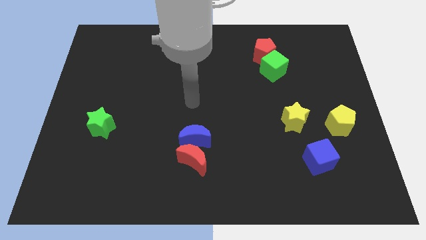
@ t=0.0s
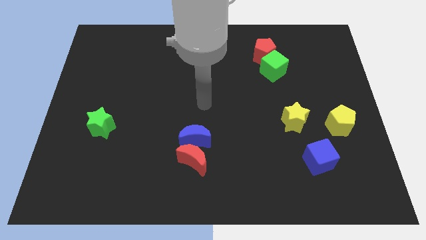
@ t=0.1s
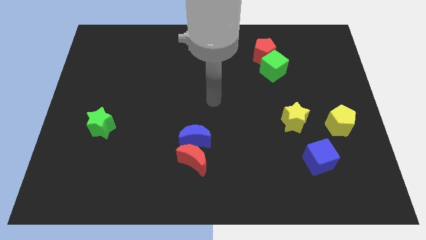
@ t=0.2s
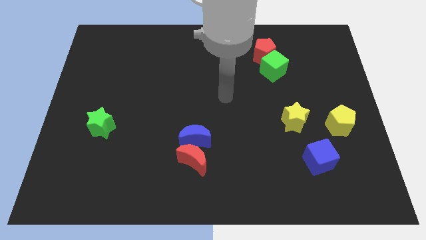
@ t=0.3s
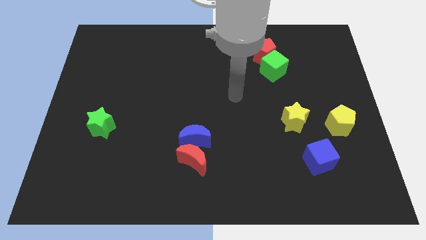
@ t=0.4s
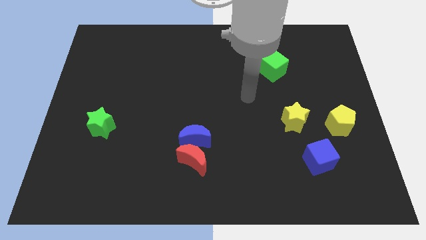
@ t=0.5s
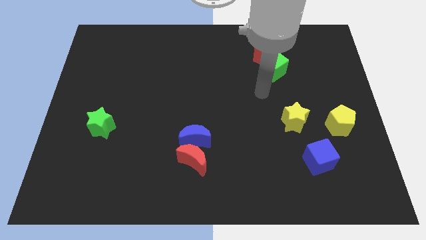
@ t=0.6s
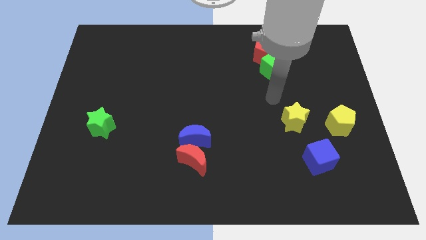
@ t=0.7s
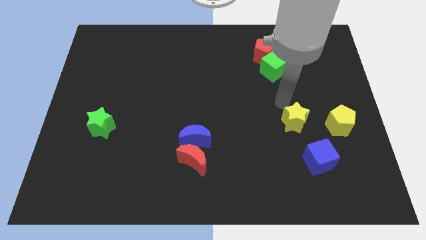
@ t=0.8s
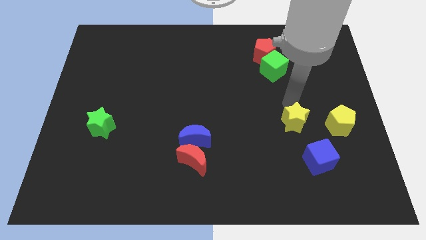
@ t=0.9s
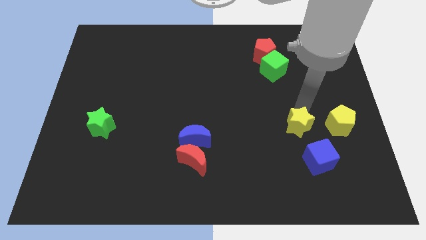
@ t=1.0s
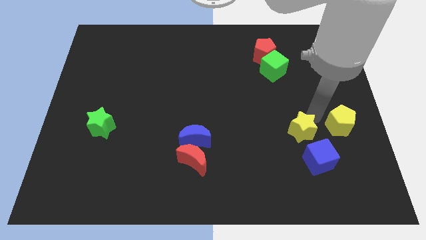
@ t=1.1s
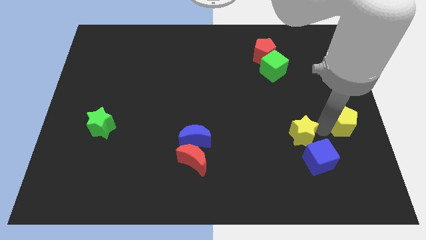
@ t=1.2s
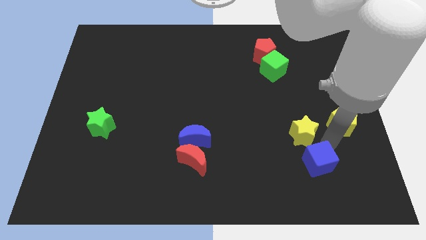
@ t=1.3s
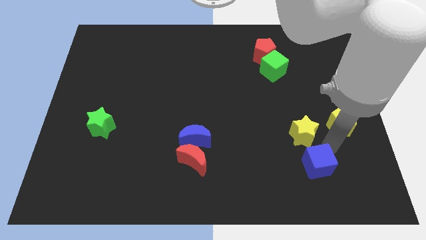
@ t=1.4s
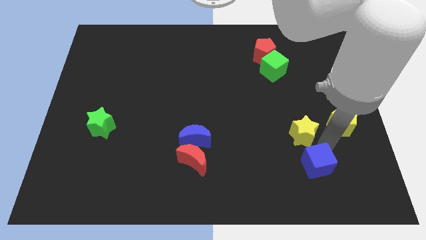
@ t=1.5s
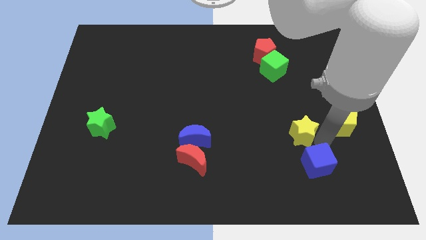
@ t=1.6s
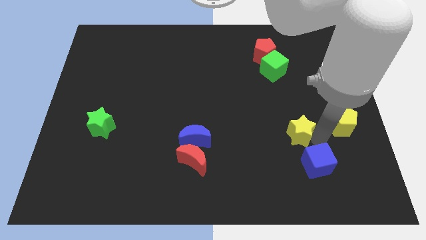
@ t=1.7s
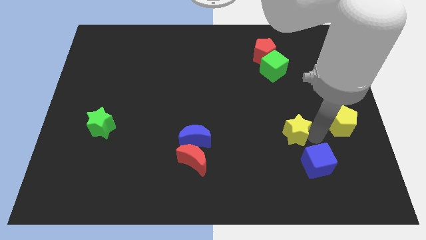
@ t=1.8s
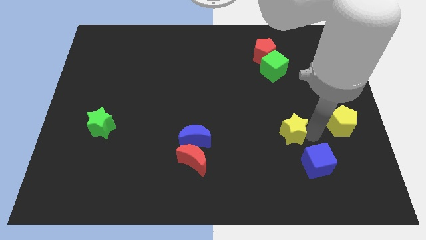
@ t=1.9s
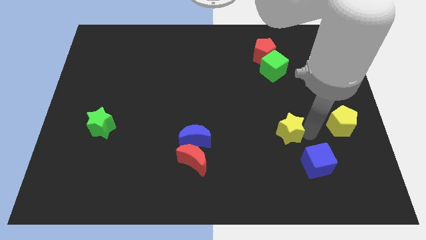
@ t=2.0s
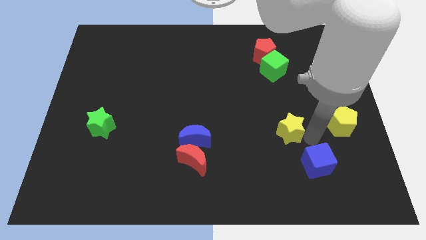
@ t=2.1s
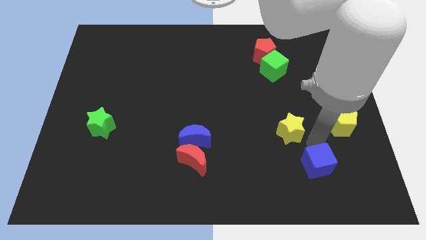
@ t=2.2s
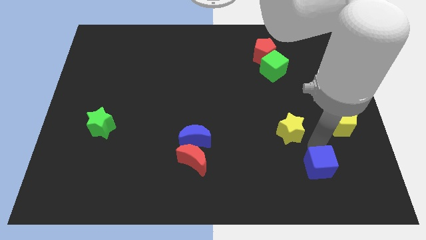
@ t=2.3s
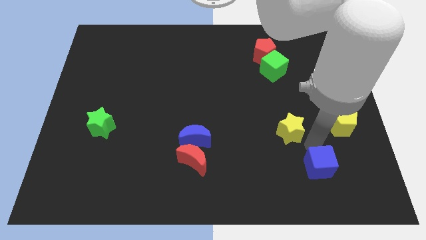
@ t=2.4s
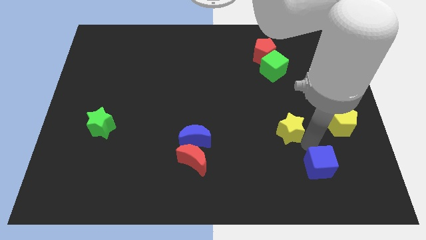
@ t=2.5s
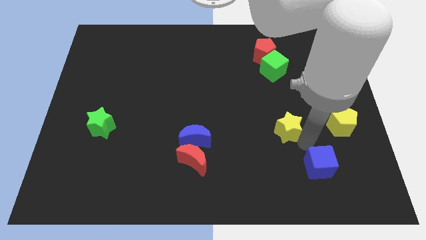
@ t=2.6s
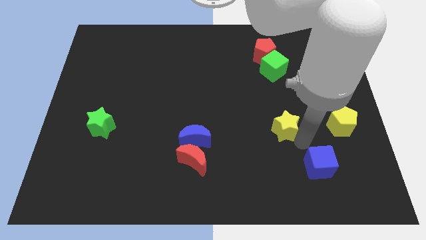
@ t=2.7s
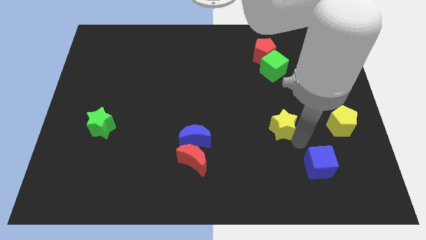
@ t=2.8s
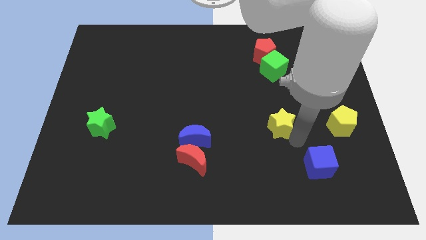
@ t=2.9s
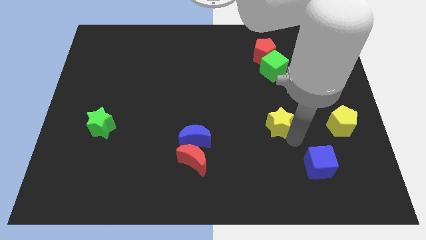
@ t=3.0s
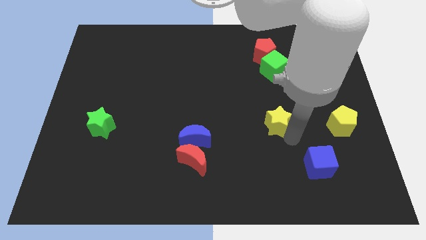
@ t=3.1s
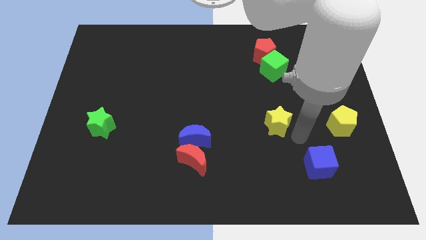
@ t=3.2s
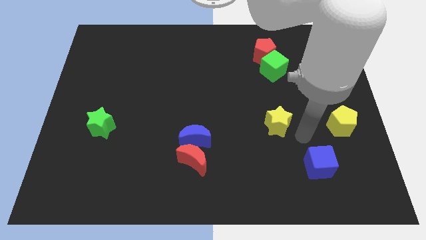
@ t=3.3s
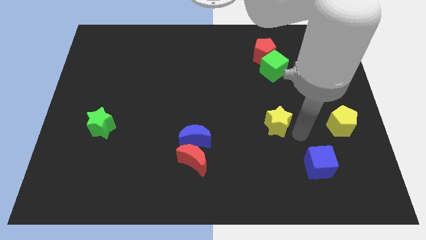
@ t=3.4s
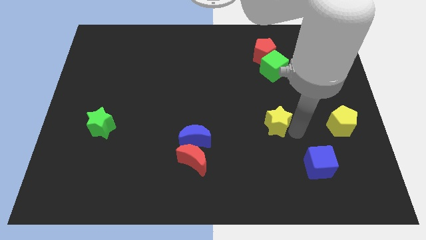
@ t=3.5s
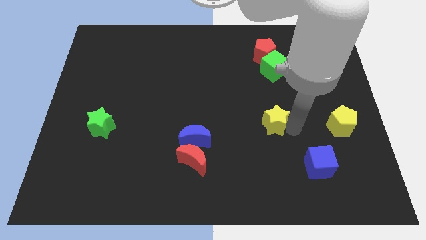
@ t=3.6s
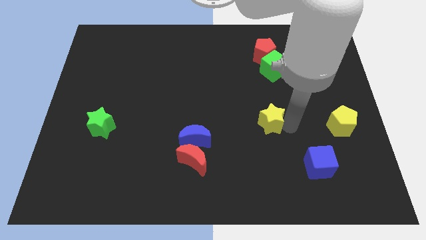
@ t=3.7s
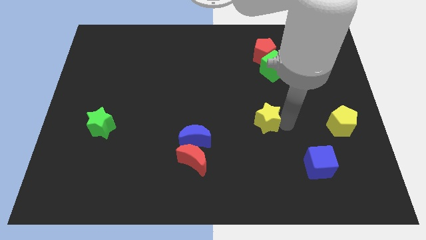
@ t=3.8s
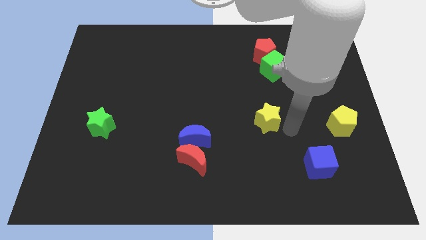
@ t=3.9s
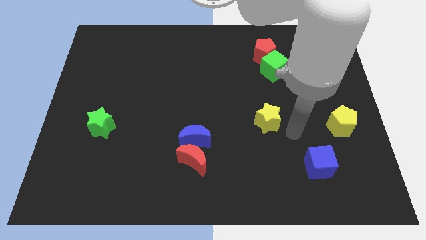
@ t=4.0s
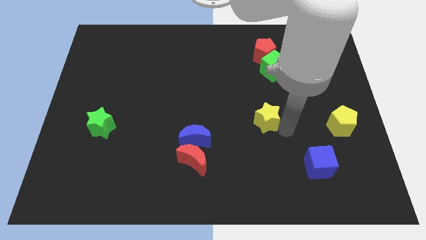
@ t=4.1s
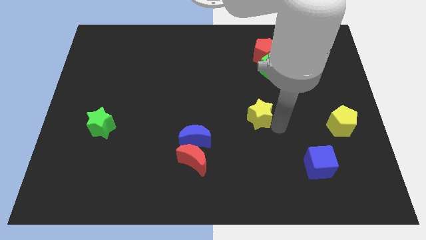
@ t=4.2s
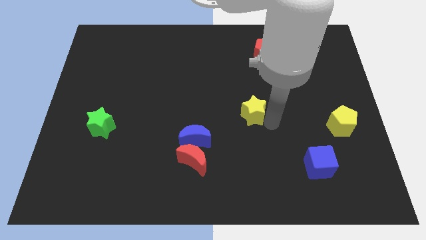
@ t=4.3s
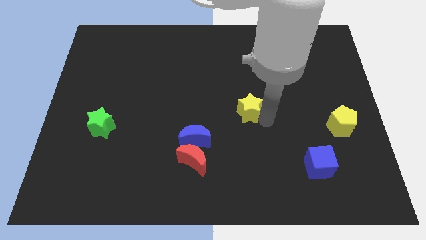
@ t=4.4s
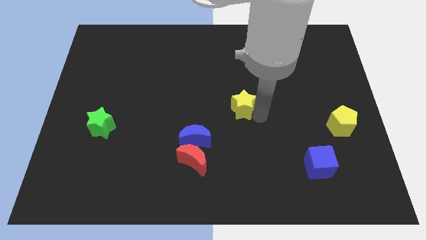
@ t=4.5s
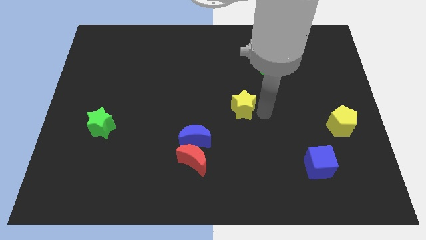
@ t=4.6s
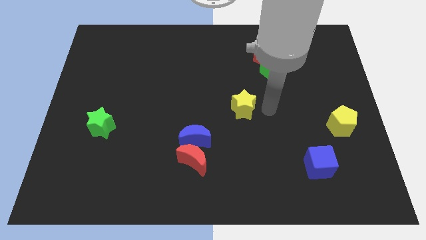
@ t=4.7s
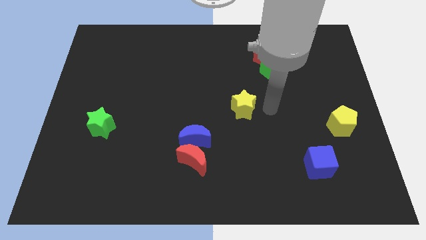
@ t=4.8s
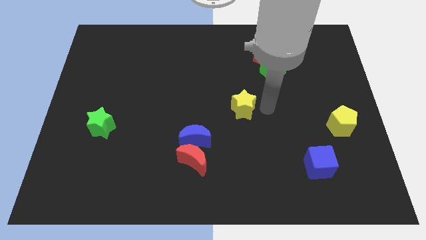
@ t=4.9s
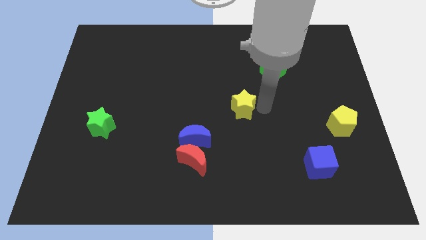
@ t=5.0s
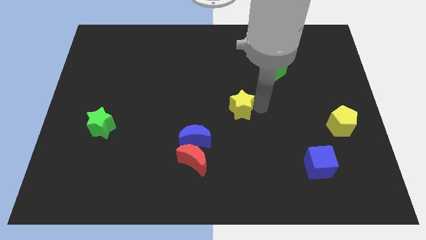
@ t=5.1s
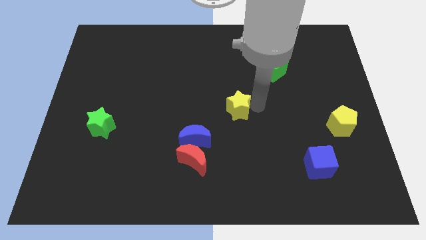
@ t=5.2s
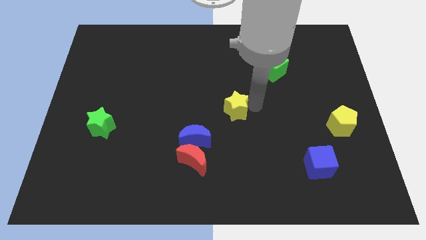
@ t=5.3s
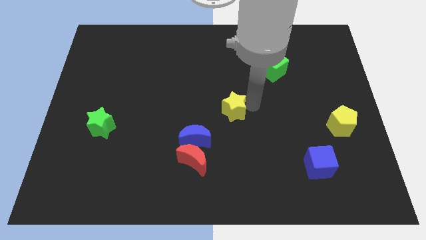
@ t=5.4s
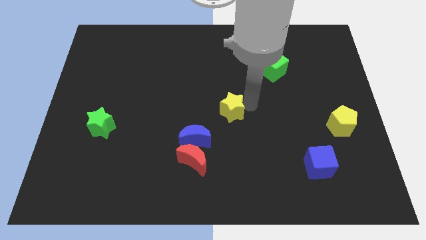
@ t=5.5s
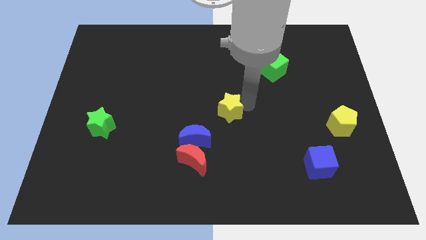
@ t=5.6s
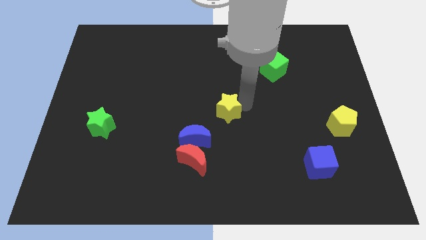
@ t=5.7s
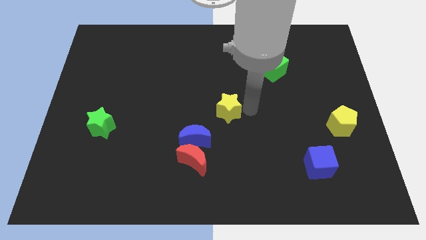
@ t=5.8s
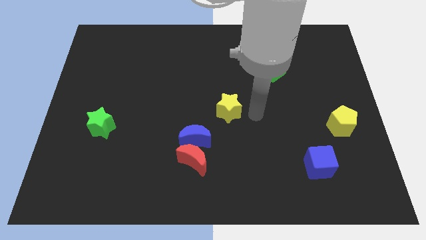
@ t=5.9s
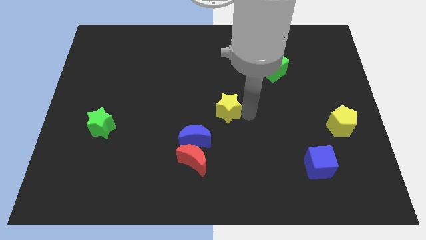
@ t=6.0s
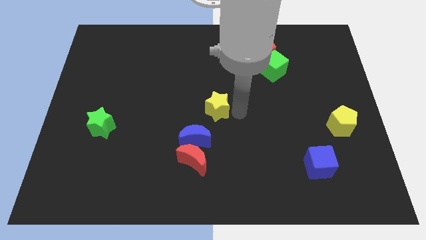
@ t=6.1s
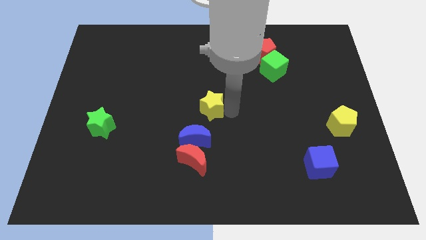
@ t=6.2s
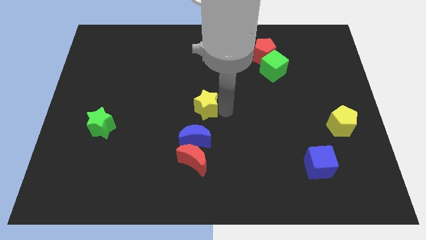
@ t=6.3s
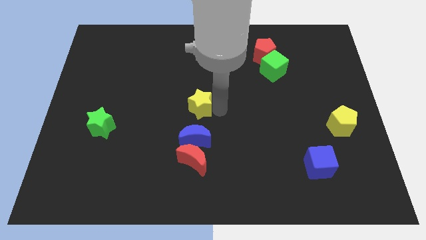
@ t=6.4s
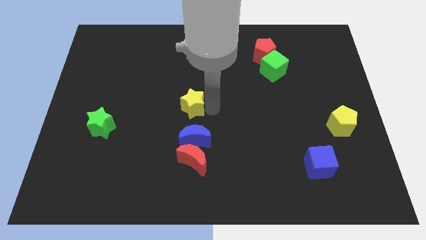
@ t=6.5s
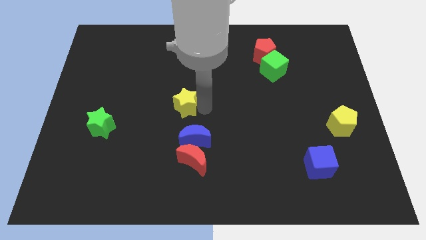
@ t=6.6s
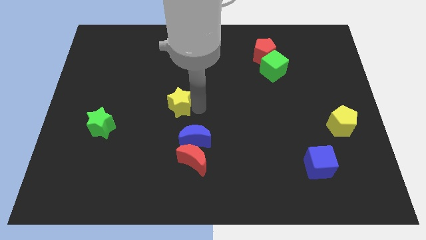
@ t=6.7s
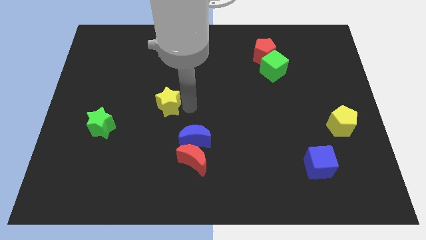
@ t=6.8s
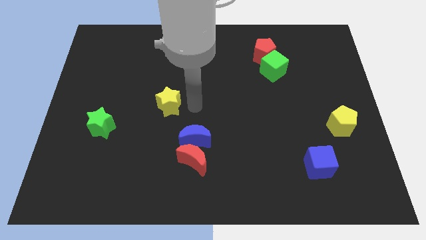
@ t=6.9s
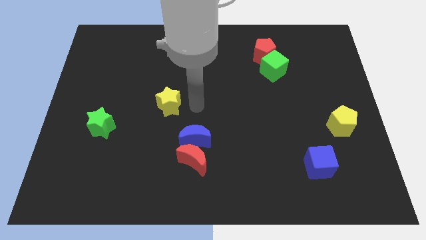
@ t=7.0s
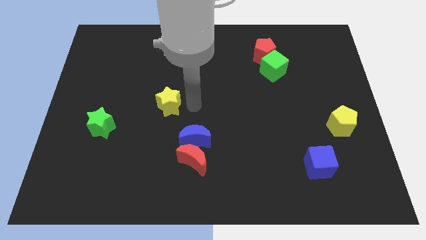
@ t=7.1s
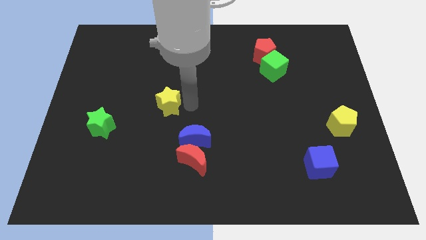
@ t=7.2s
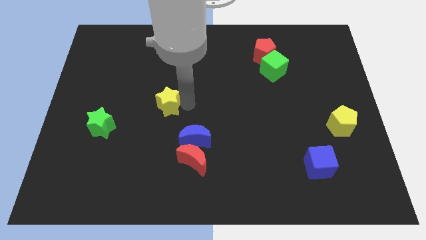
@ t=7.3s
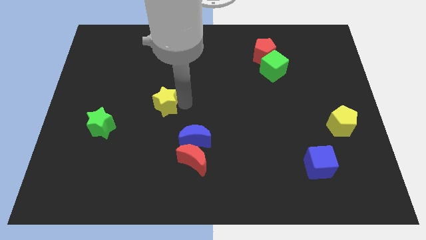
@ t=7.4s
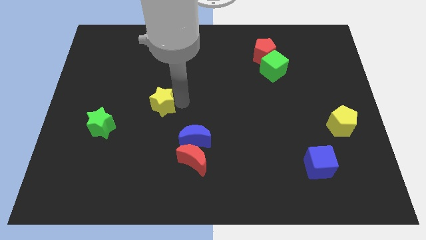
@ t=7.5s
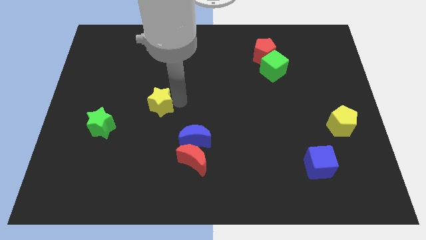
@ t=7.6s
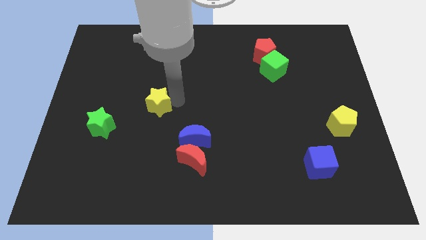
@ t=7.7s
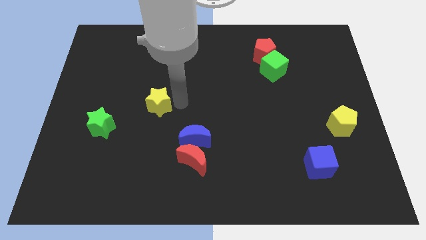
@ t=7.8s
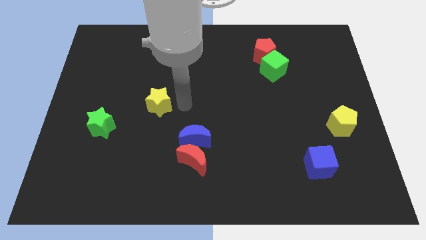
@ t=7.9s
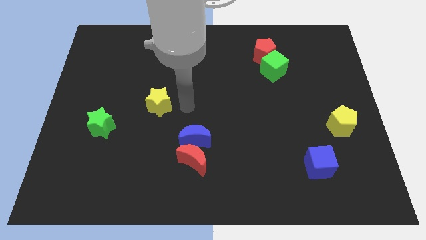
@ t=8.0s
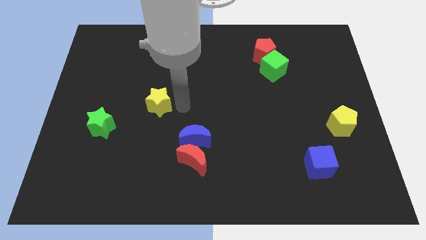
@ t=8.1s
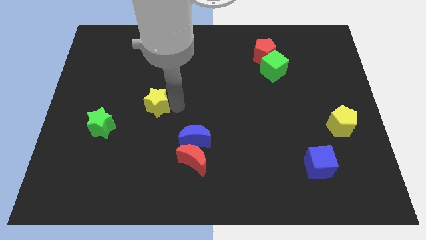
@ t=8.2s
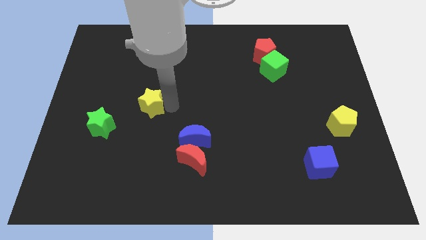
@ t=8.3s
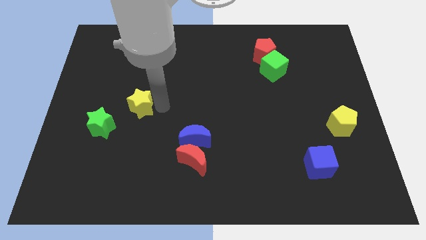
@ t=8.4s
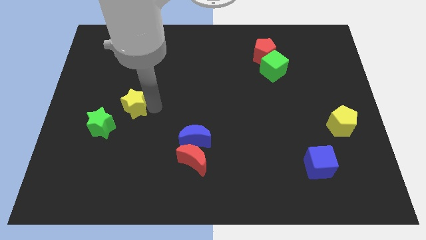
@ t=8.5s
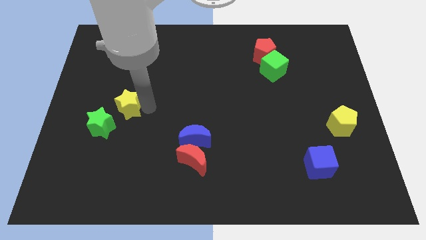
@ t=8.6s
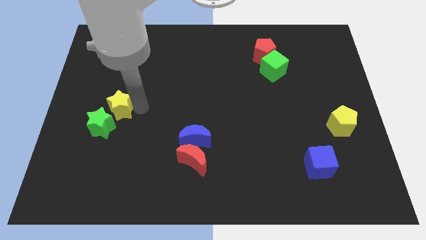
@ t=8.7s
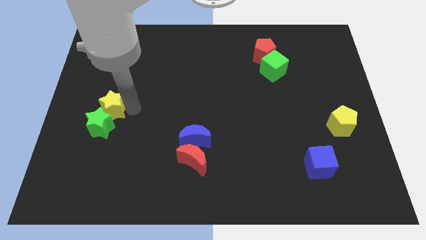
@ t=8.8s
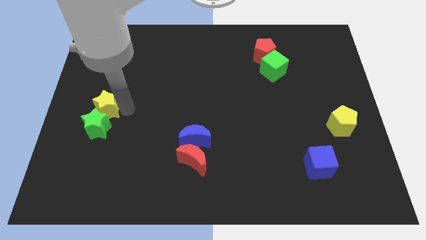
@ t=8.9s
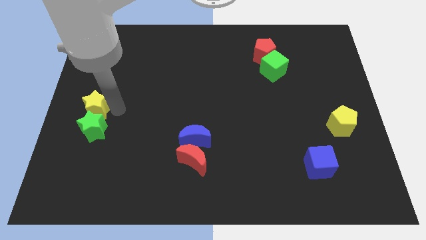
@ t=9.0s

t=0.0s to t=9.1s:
put the yellow star to the center left
